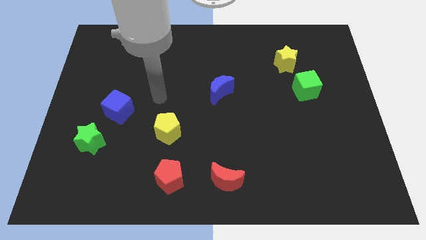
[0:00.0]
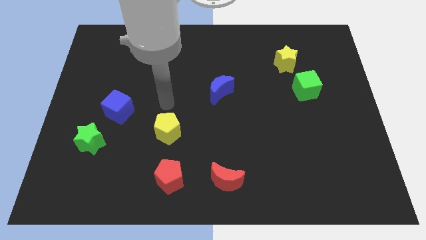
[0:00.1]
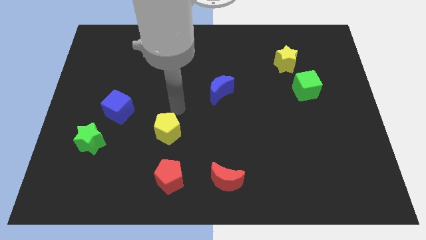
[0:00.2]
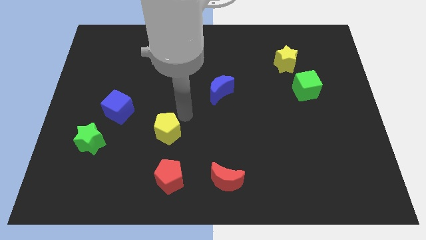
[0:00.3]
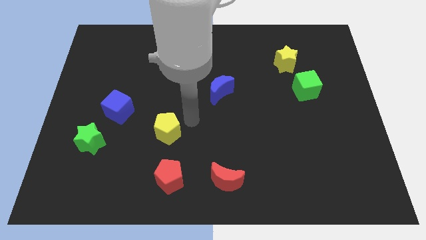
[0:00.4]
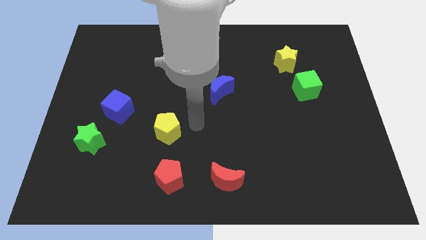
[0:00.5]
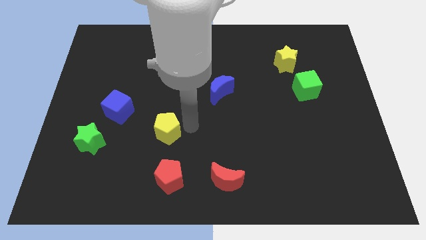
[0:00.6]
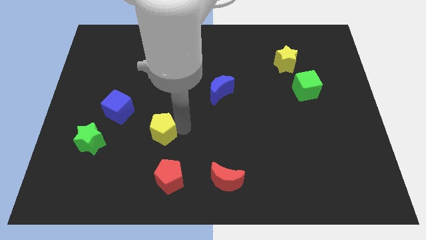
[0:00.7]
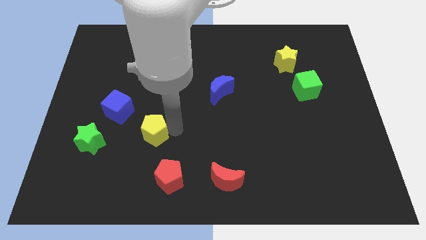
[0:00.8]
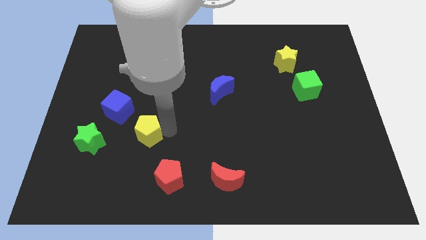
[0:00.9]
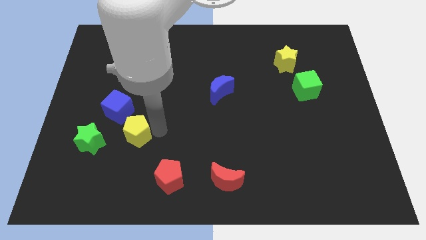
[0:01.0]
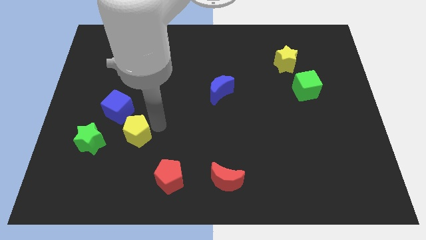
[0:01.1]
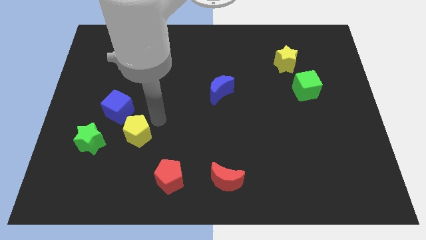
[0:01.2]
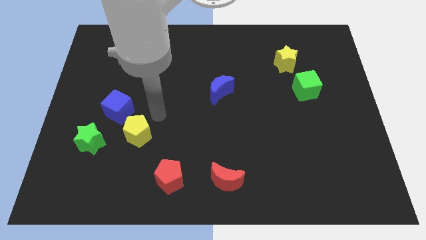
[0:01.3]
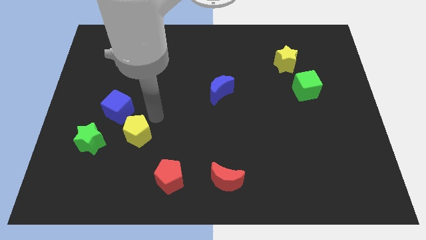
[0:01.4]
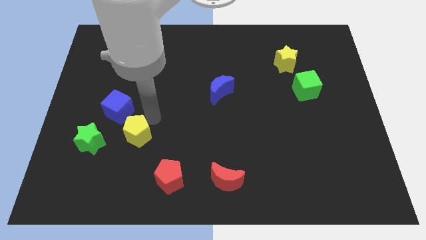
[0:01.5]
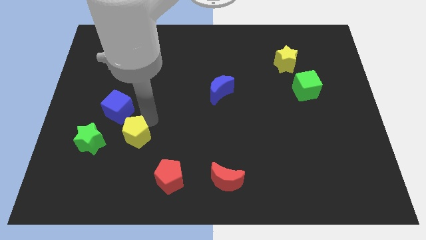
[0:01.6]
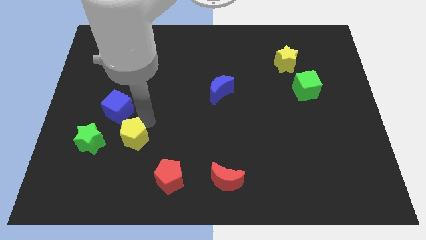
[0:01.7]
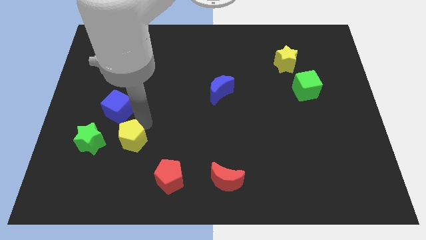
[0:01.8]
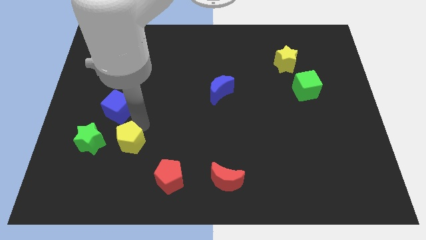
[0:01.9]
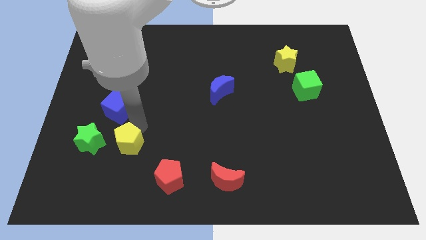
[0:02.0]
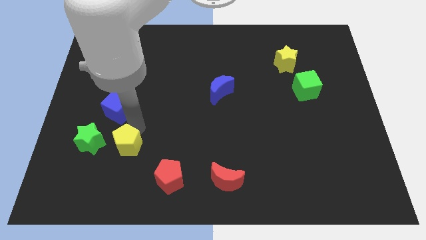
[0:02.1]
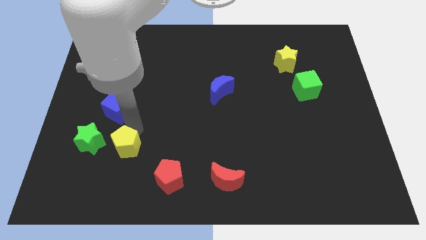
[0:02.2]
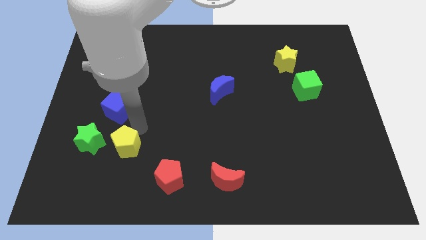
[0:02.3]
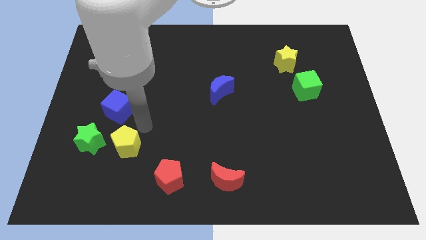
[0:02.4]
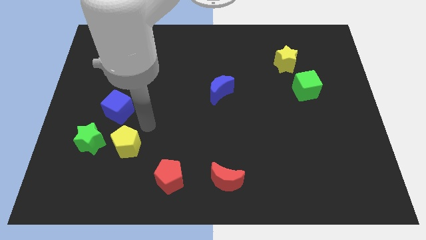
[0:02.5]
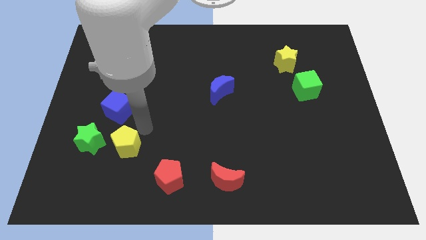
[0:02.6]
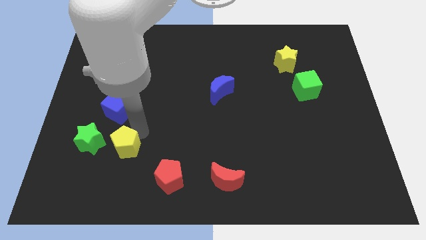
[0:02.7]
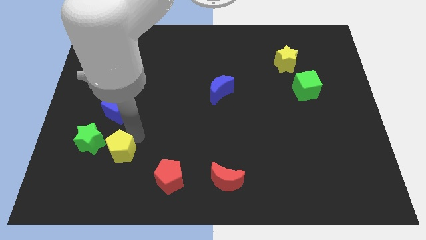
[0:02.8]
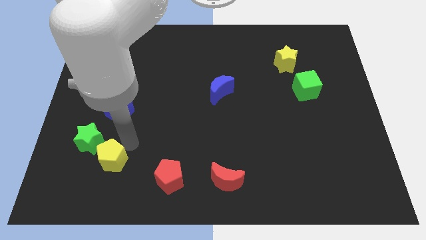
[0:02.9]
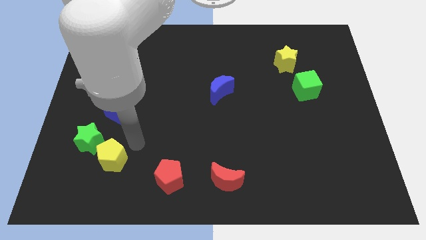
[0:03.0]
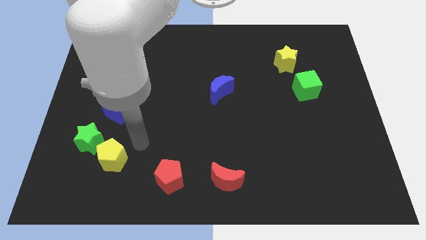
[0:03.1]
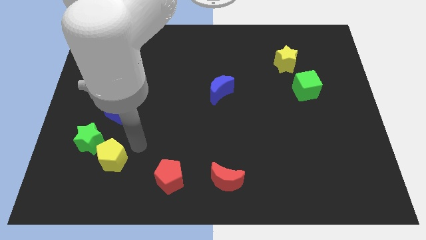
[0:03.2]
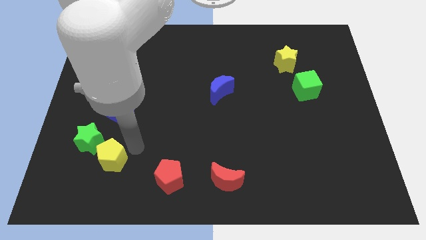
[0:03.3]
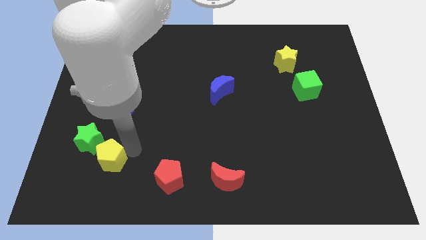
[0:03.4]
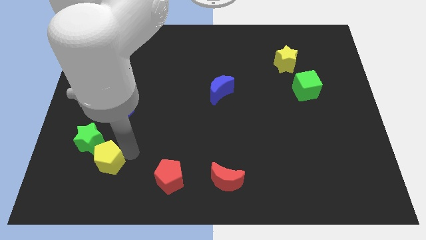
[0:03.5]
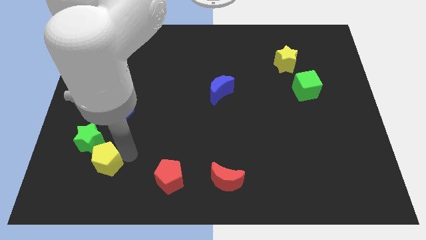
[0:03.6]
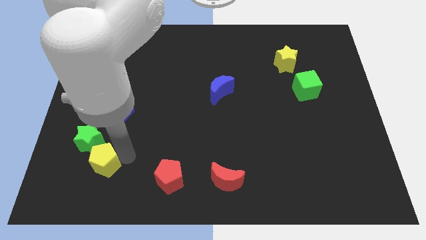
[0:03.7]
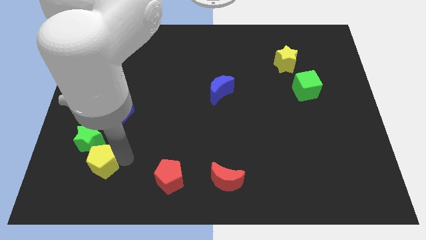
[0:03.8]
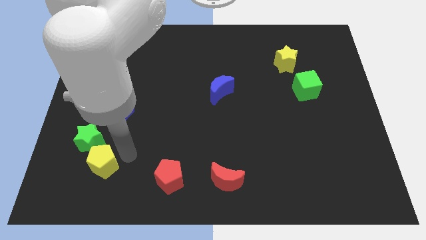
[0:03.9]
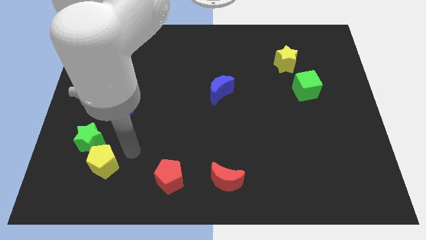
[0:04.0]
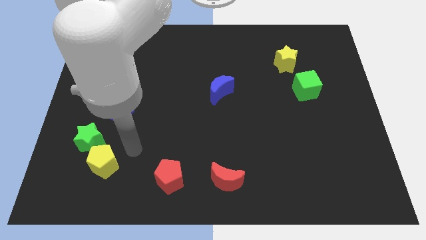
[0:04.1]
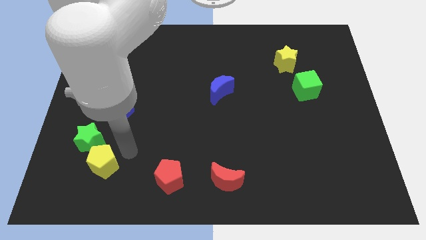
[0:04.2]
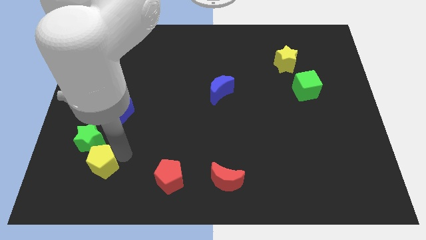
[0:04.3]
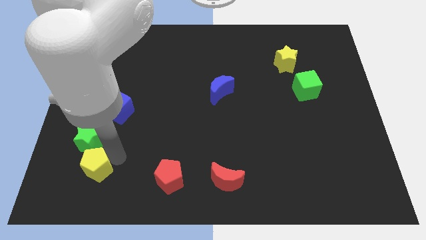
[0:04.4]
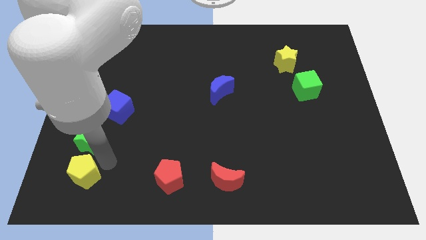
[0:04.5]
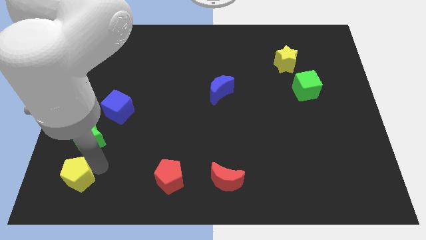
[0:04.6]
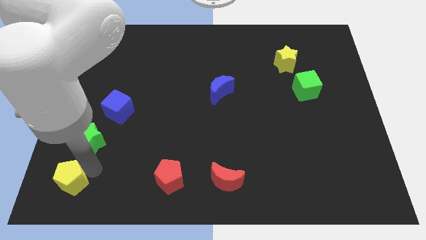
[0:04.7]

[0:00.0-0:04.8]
push the yellow pentagon to the bottom left corner

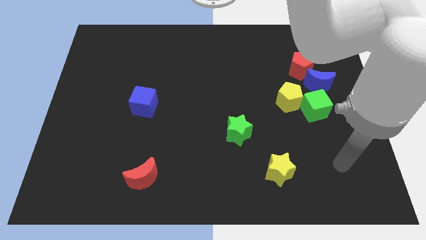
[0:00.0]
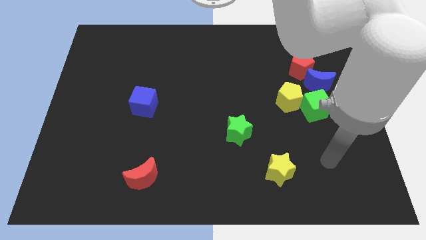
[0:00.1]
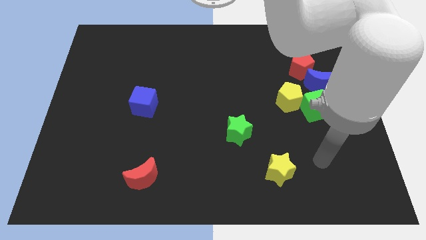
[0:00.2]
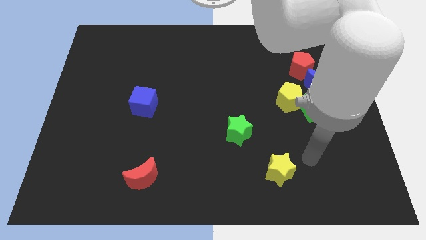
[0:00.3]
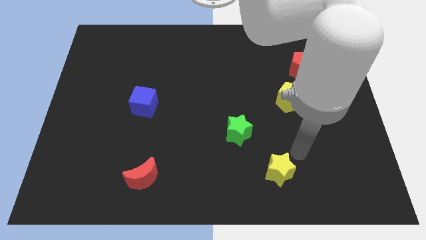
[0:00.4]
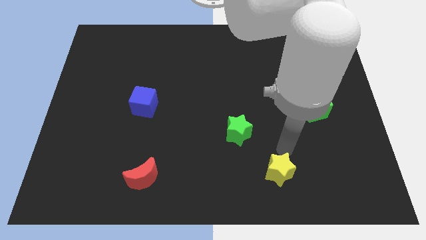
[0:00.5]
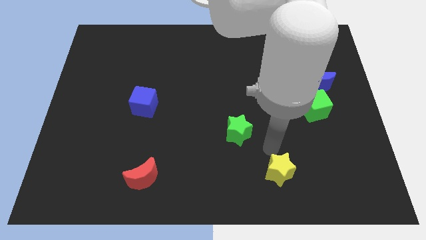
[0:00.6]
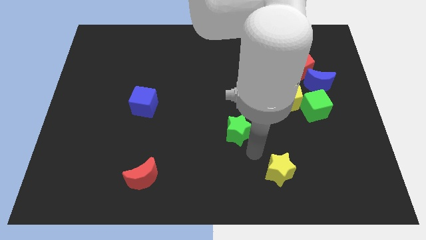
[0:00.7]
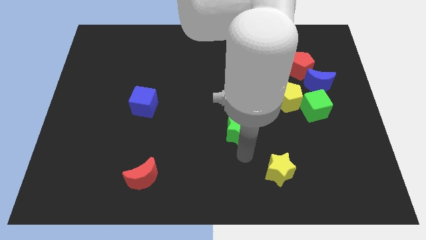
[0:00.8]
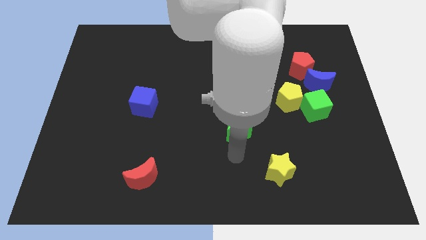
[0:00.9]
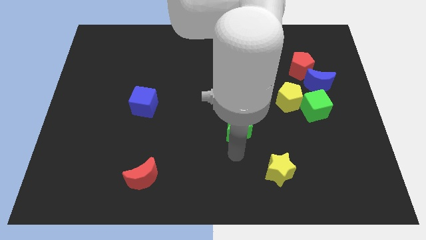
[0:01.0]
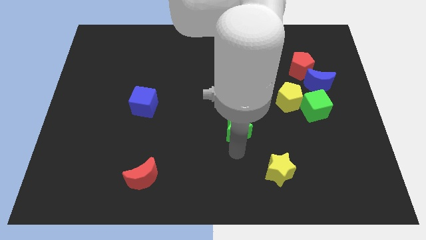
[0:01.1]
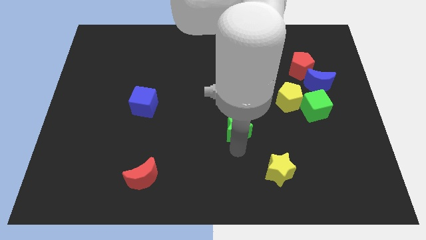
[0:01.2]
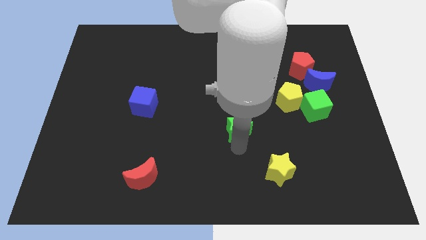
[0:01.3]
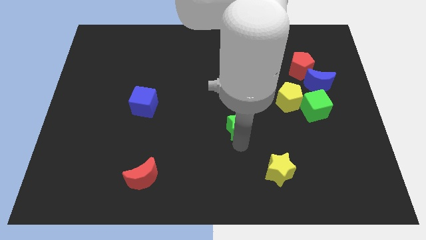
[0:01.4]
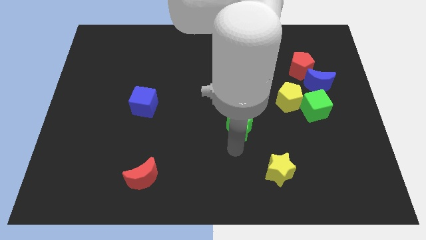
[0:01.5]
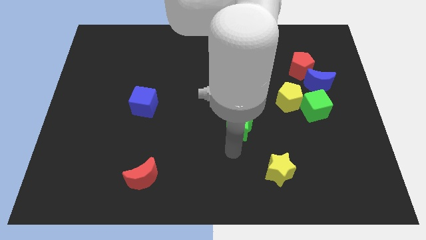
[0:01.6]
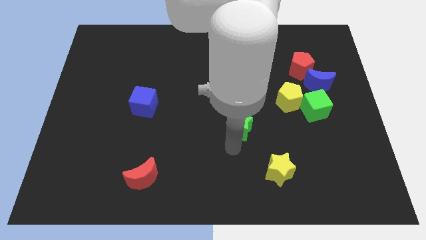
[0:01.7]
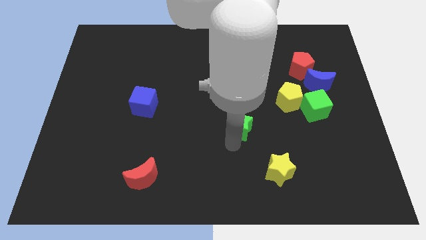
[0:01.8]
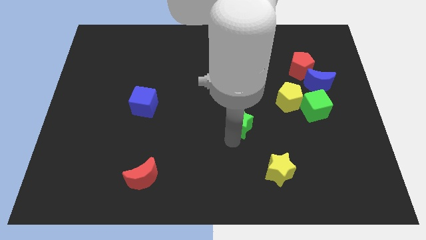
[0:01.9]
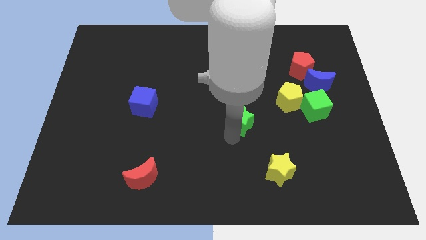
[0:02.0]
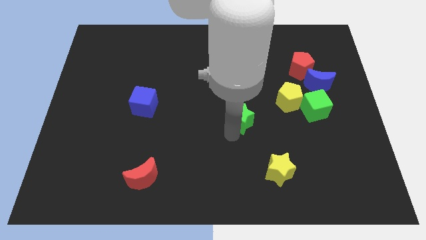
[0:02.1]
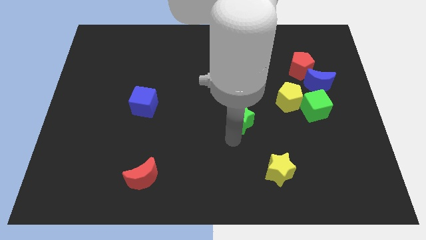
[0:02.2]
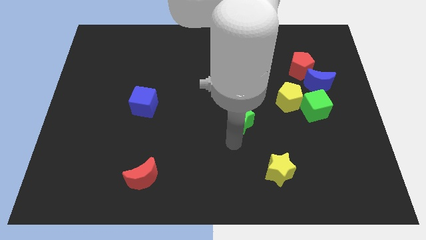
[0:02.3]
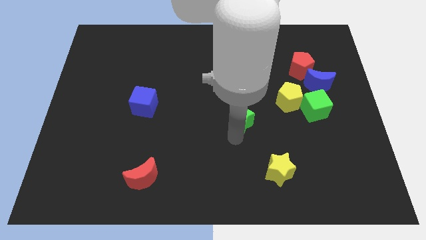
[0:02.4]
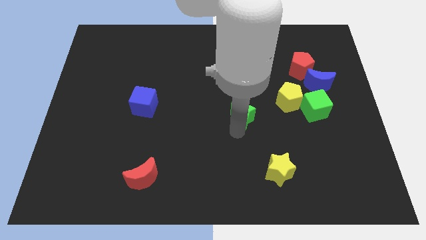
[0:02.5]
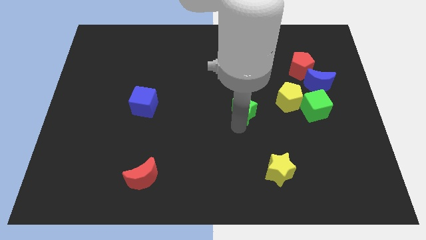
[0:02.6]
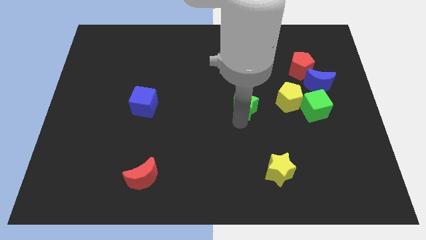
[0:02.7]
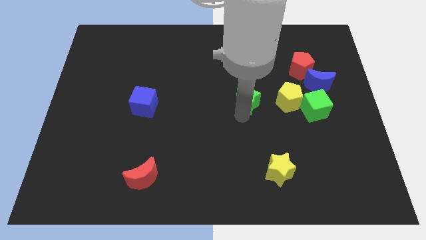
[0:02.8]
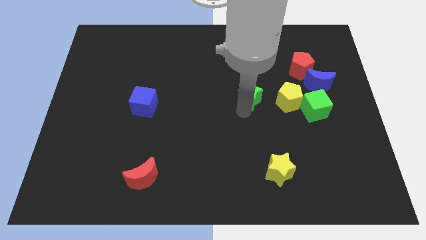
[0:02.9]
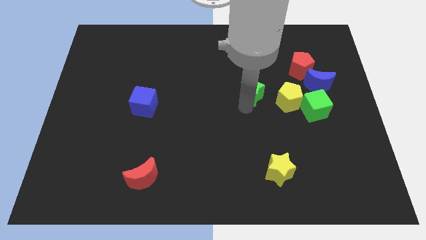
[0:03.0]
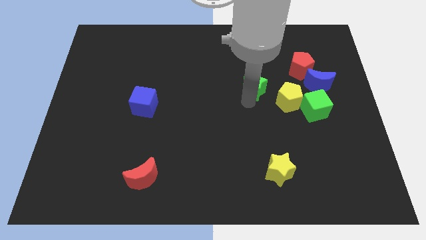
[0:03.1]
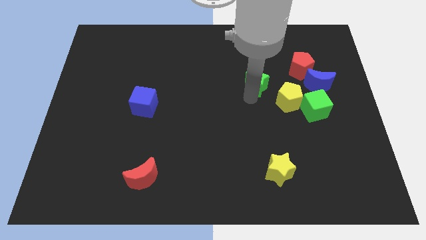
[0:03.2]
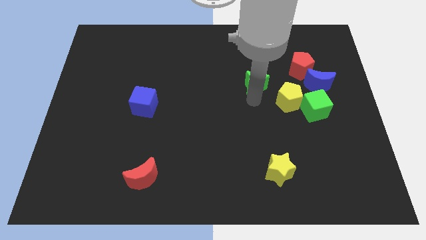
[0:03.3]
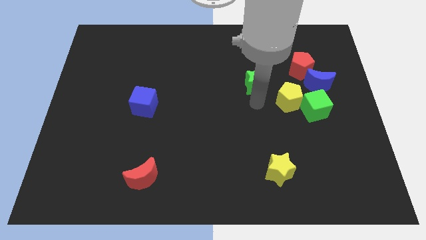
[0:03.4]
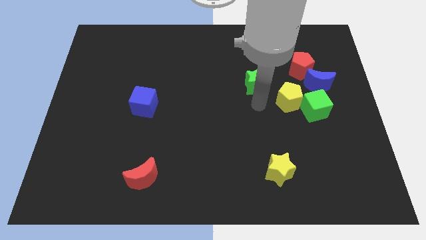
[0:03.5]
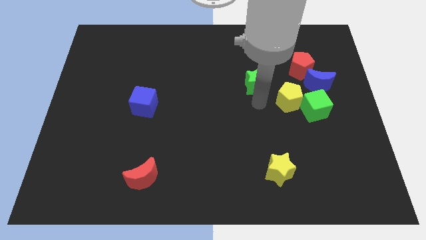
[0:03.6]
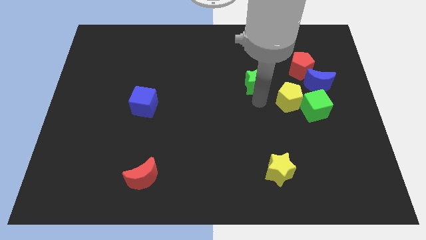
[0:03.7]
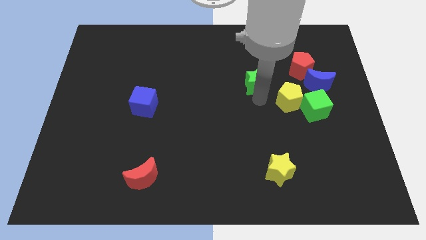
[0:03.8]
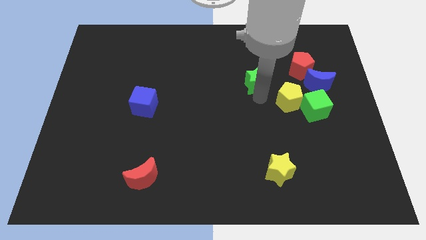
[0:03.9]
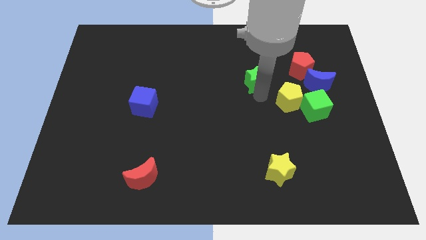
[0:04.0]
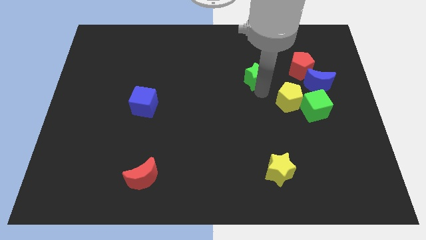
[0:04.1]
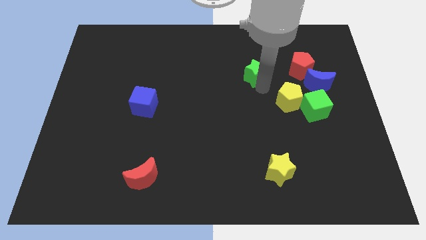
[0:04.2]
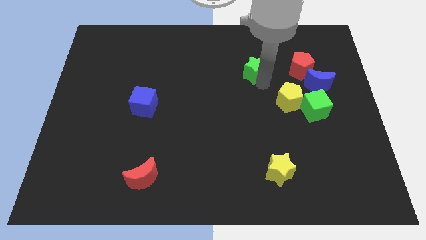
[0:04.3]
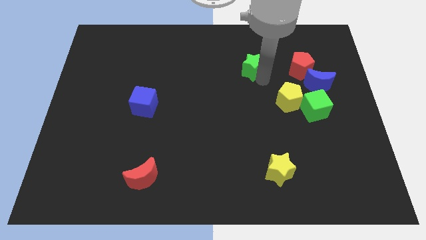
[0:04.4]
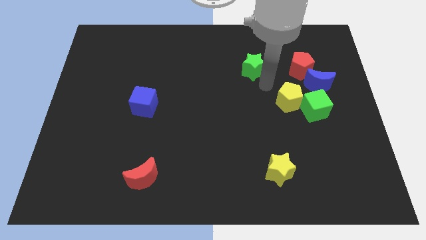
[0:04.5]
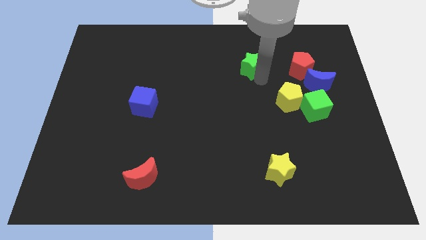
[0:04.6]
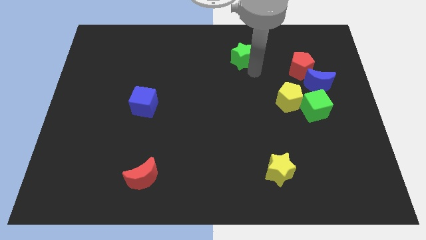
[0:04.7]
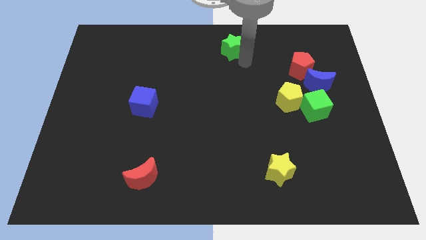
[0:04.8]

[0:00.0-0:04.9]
push the green star to the top side
